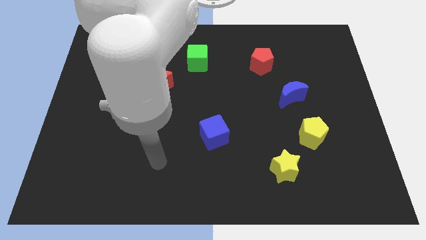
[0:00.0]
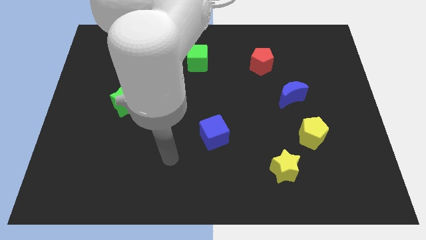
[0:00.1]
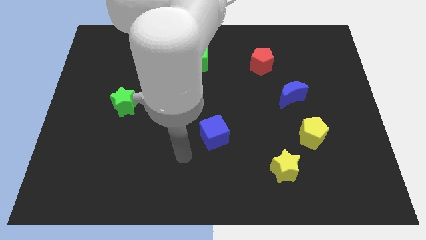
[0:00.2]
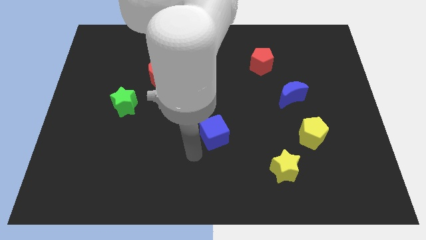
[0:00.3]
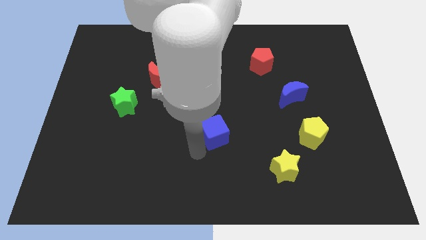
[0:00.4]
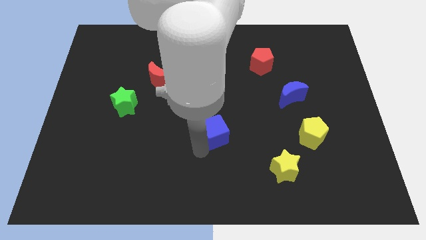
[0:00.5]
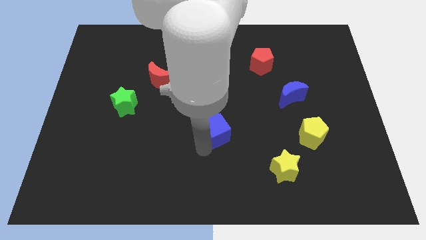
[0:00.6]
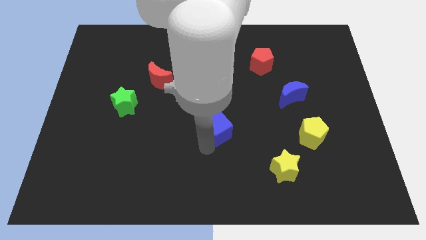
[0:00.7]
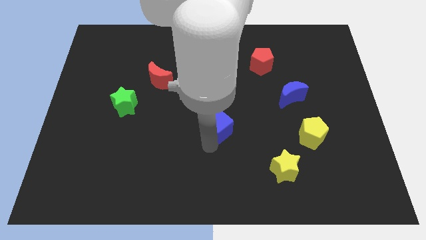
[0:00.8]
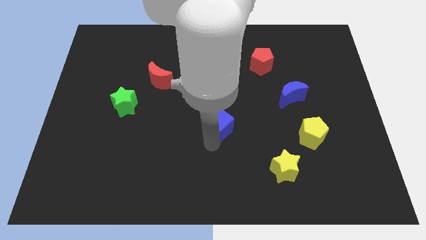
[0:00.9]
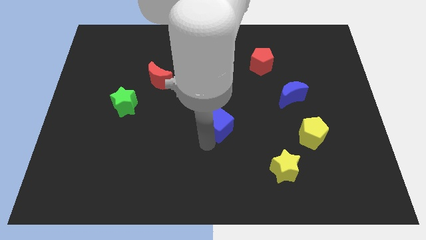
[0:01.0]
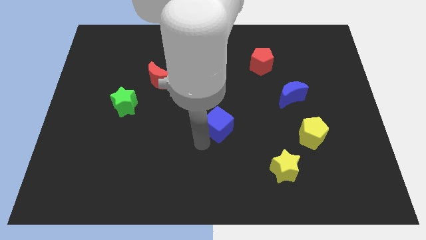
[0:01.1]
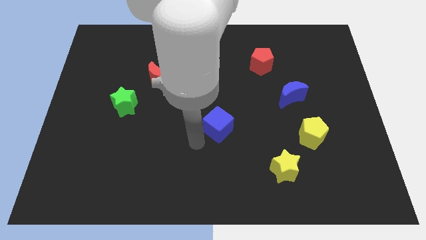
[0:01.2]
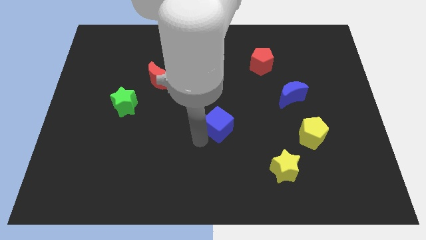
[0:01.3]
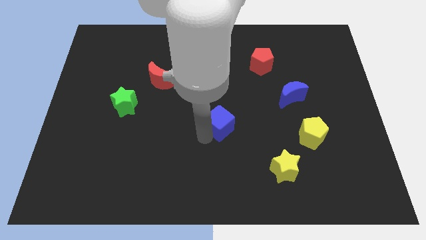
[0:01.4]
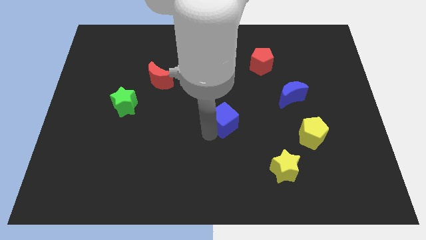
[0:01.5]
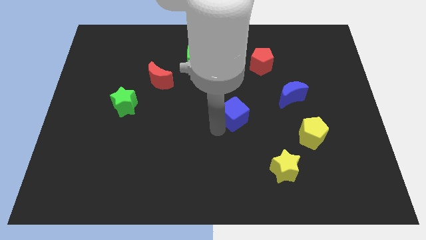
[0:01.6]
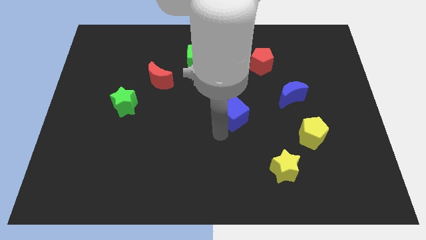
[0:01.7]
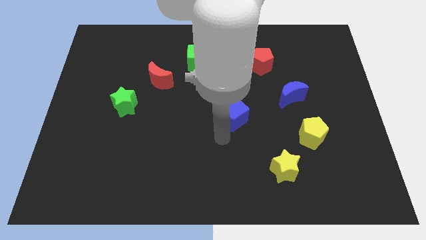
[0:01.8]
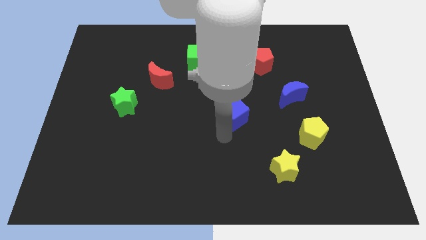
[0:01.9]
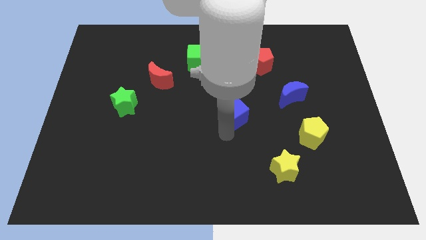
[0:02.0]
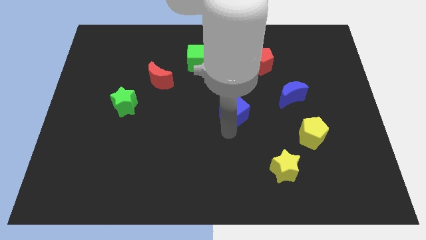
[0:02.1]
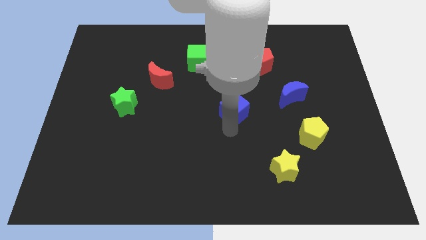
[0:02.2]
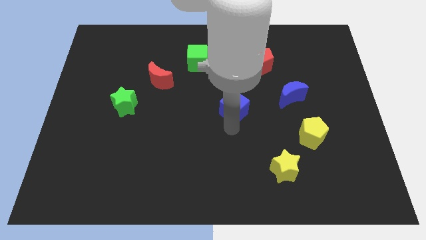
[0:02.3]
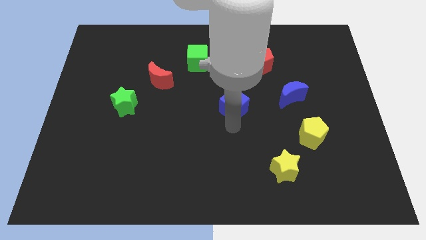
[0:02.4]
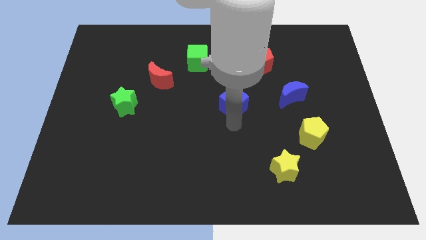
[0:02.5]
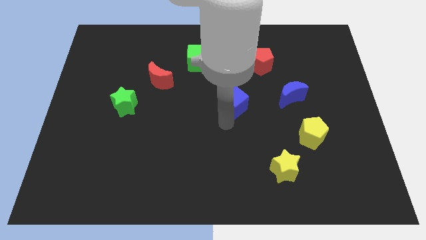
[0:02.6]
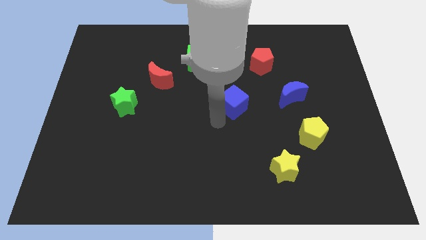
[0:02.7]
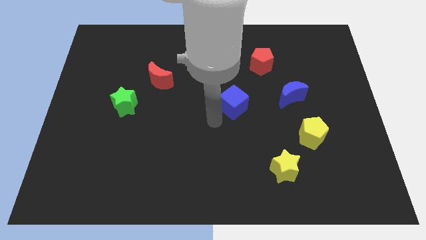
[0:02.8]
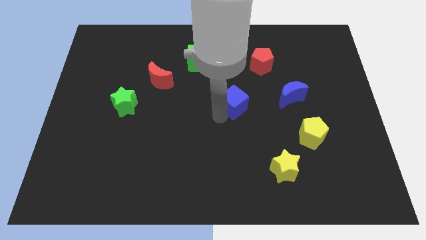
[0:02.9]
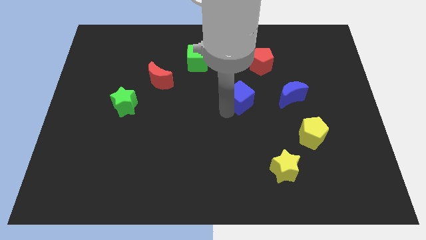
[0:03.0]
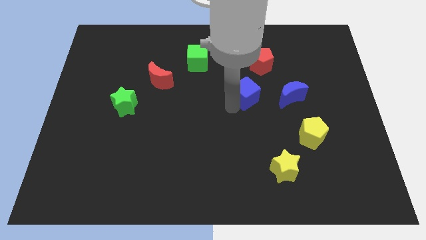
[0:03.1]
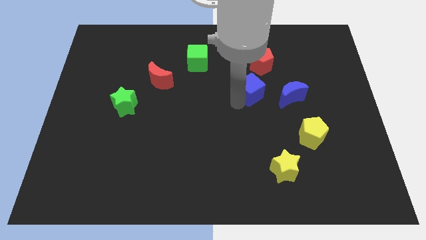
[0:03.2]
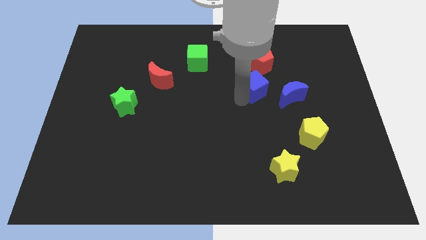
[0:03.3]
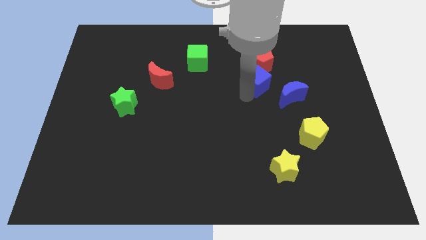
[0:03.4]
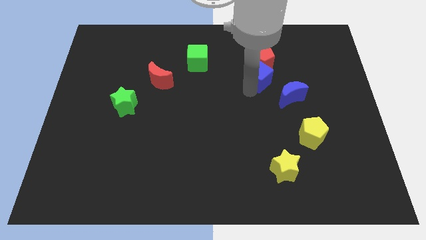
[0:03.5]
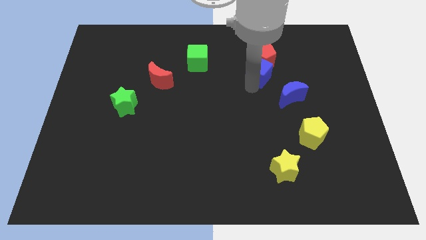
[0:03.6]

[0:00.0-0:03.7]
push the blue cube upwards and to the right diagonally

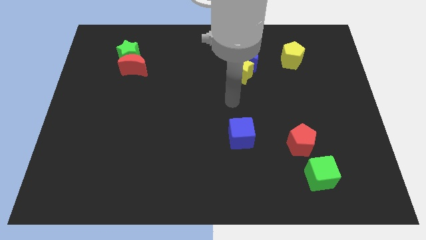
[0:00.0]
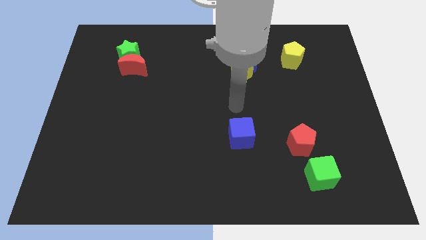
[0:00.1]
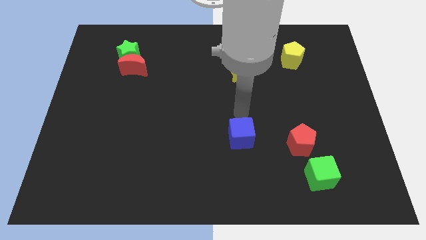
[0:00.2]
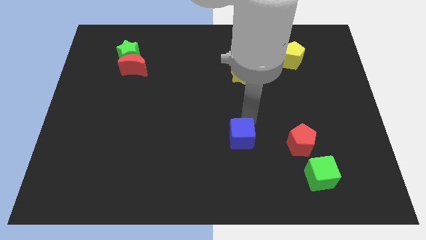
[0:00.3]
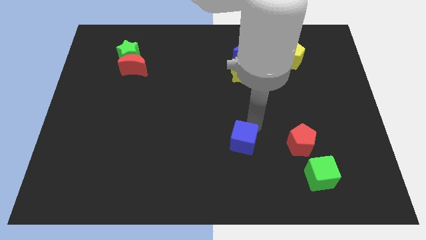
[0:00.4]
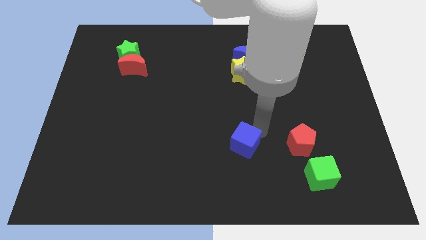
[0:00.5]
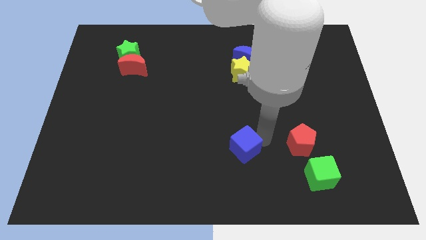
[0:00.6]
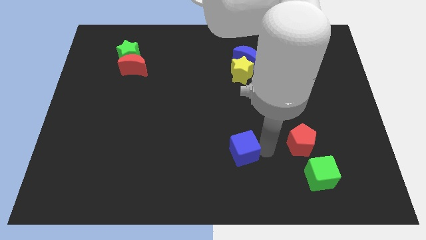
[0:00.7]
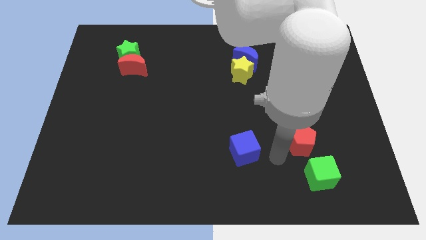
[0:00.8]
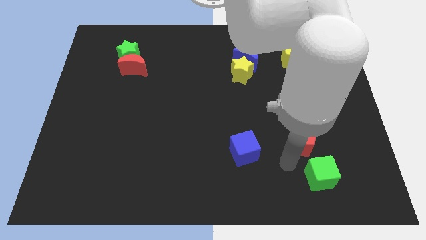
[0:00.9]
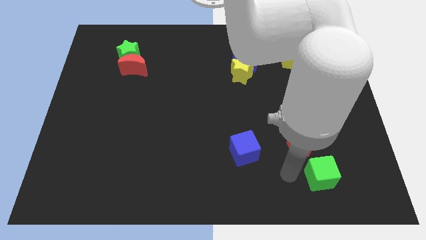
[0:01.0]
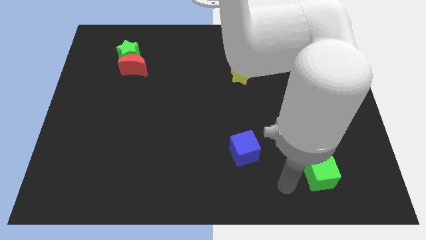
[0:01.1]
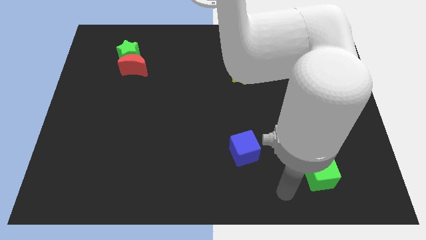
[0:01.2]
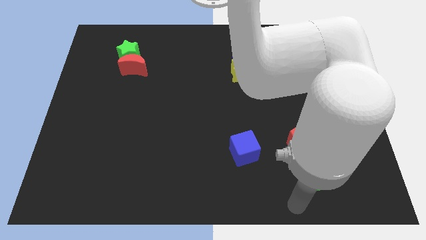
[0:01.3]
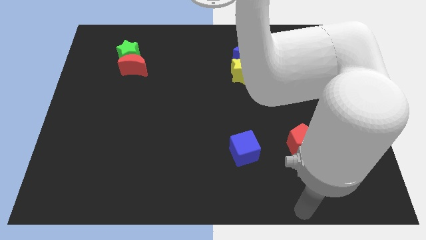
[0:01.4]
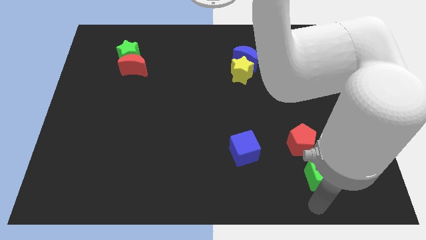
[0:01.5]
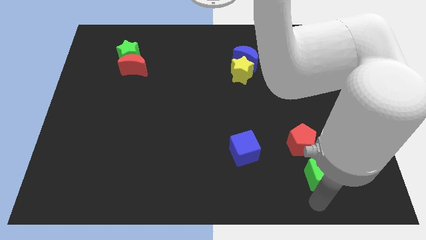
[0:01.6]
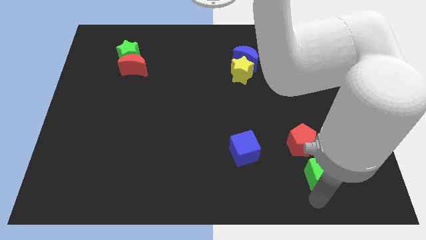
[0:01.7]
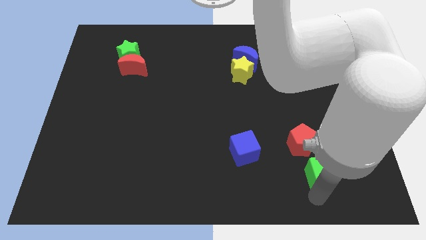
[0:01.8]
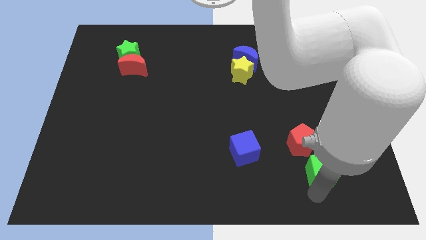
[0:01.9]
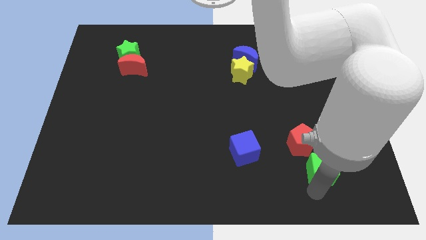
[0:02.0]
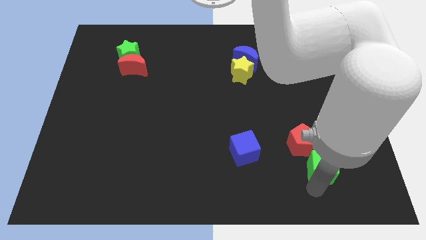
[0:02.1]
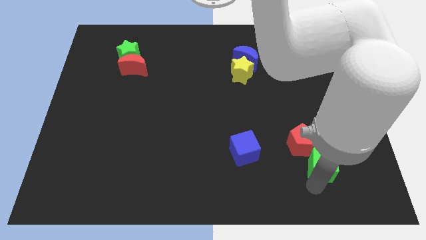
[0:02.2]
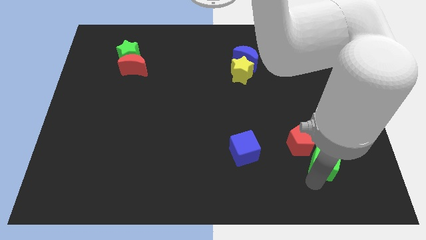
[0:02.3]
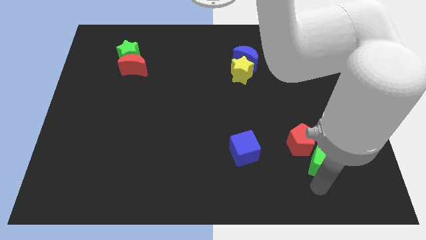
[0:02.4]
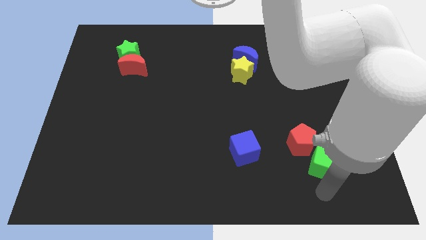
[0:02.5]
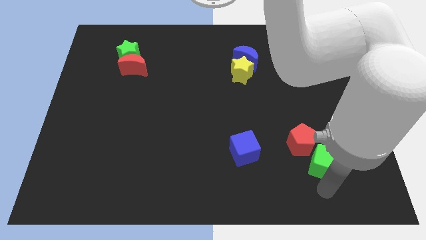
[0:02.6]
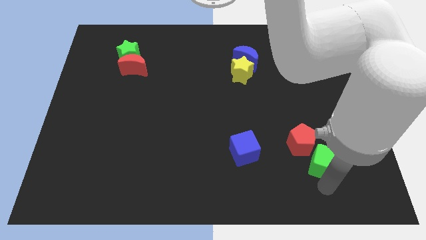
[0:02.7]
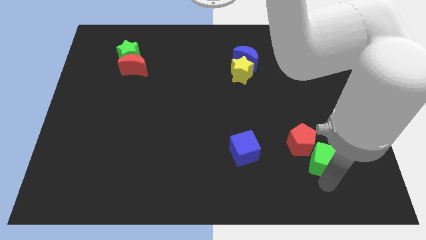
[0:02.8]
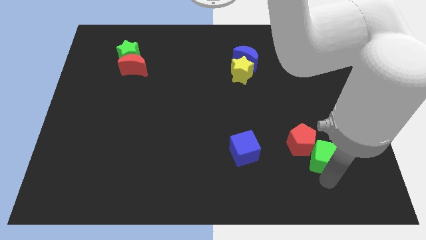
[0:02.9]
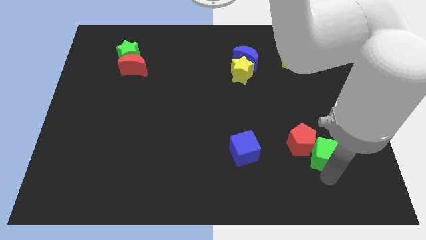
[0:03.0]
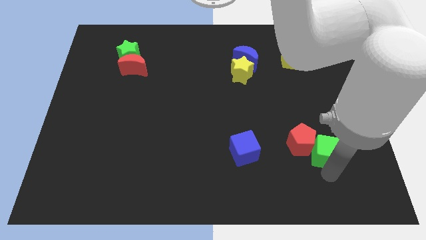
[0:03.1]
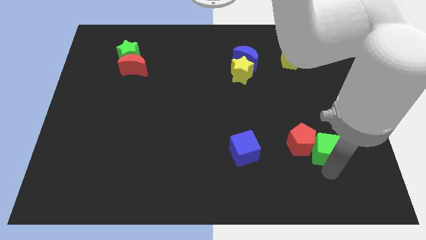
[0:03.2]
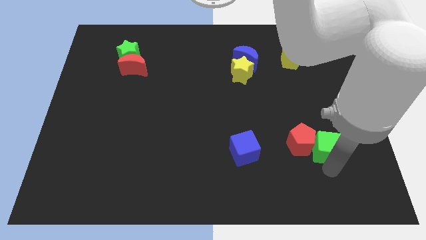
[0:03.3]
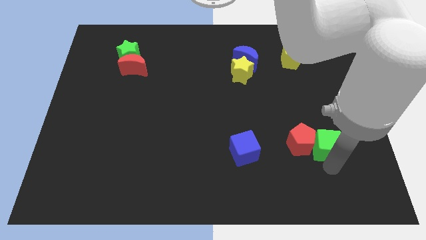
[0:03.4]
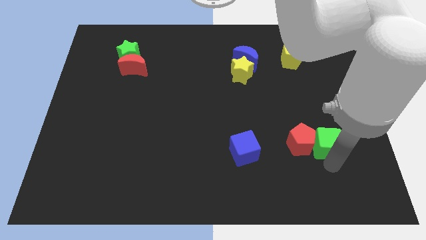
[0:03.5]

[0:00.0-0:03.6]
slide the green cube slightly upwards

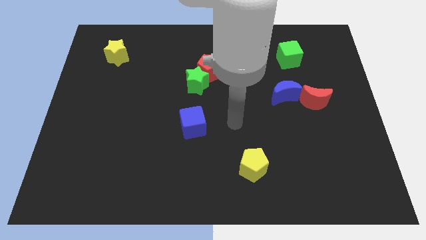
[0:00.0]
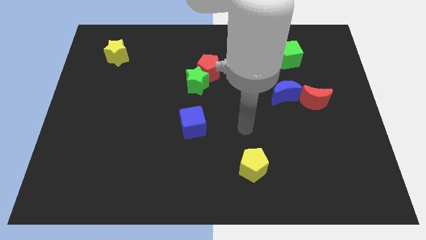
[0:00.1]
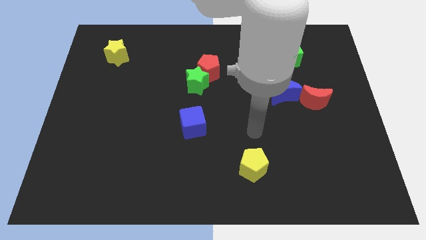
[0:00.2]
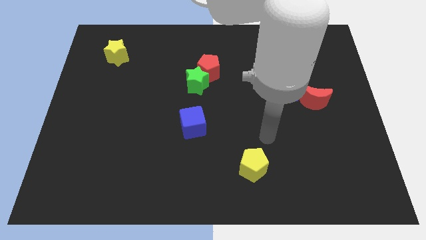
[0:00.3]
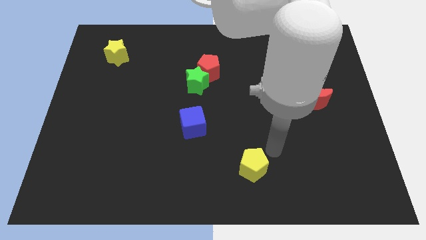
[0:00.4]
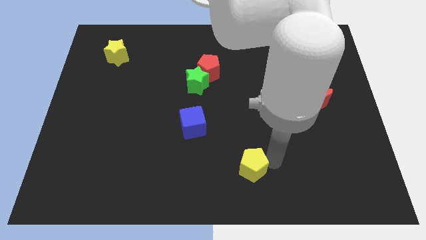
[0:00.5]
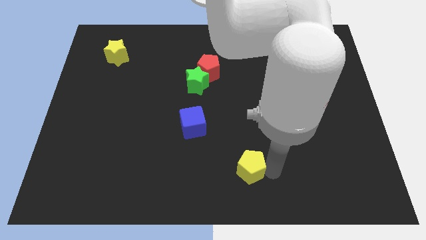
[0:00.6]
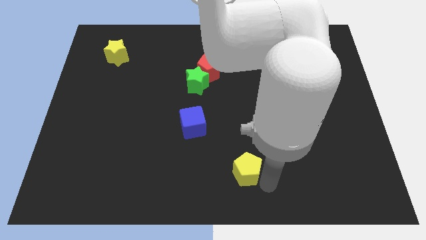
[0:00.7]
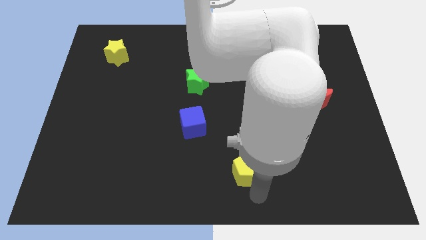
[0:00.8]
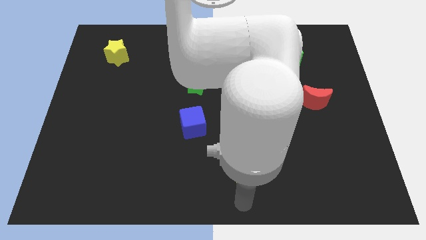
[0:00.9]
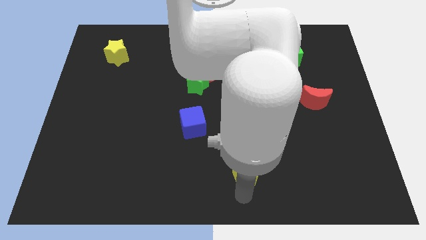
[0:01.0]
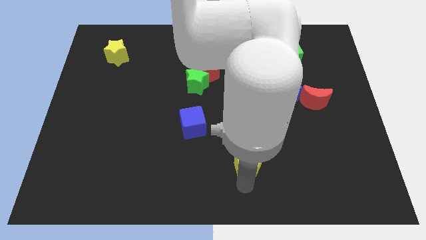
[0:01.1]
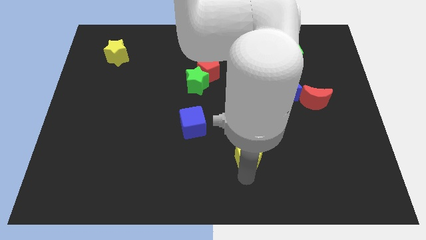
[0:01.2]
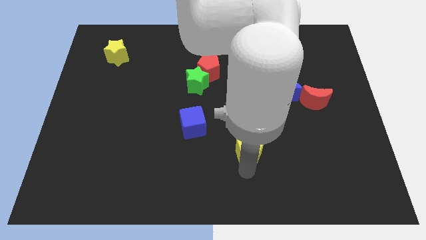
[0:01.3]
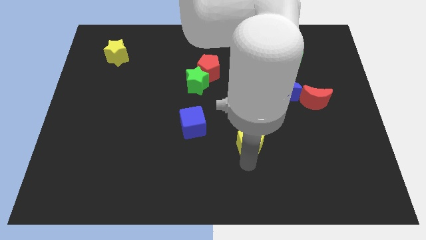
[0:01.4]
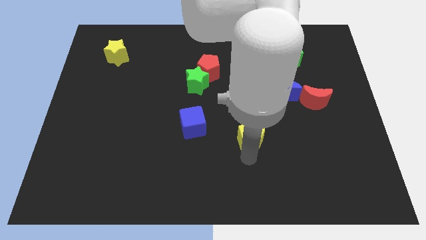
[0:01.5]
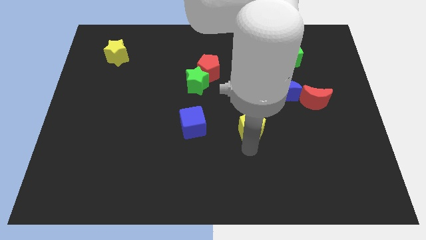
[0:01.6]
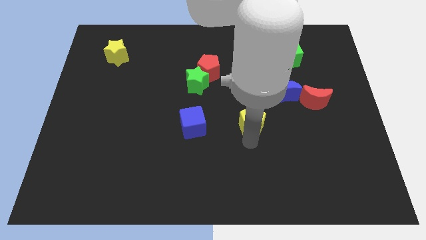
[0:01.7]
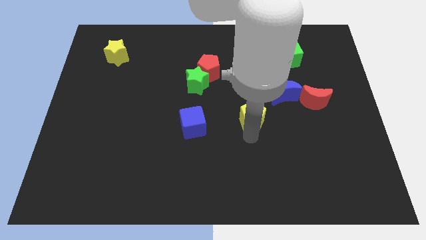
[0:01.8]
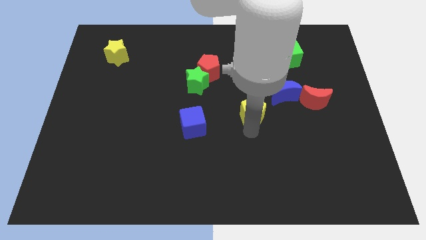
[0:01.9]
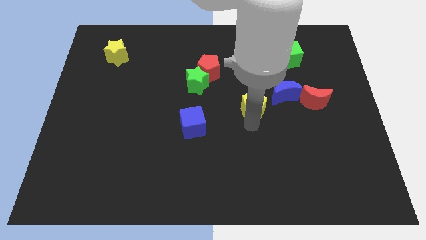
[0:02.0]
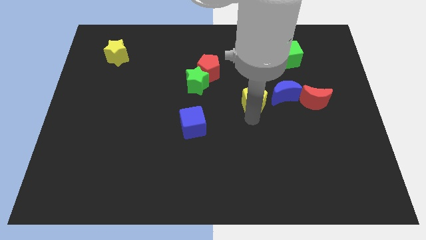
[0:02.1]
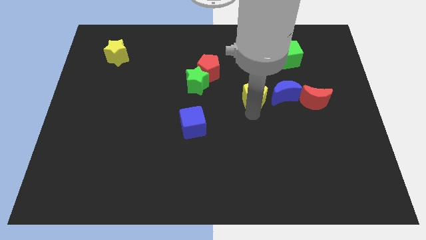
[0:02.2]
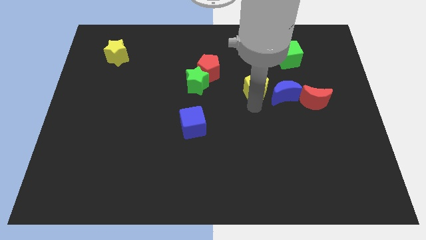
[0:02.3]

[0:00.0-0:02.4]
push the yellow pentagon upwards
